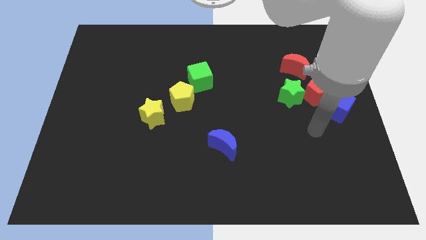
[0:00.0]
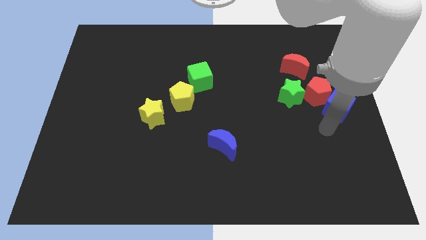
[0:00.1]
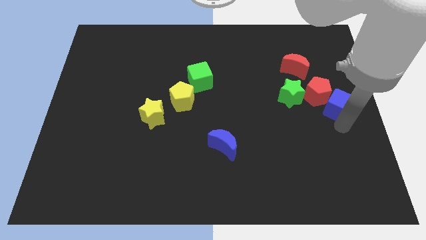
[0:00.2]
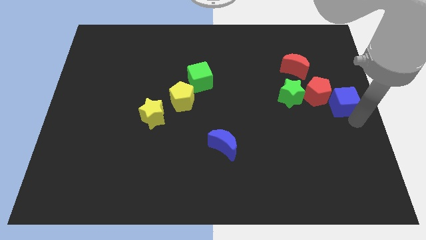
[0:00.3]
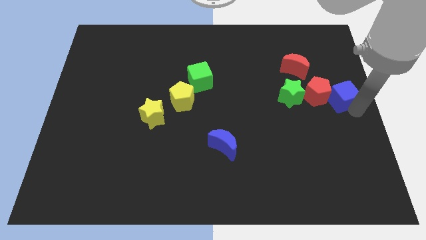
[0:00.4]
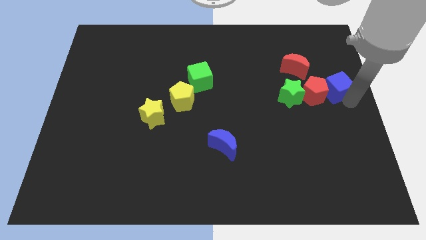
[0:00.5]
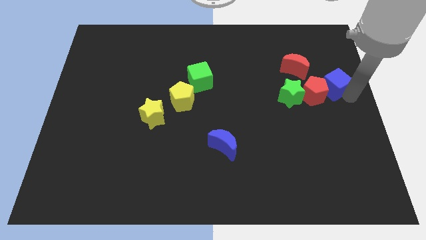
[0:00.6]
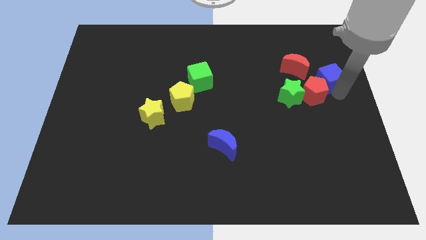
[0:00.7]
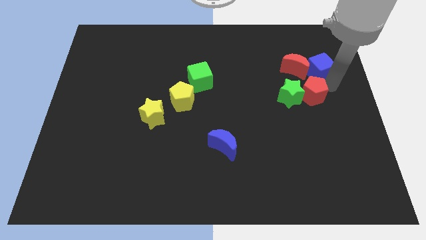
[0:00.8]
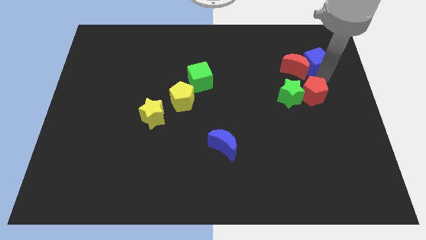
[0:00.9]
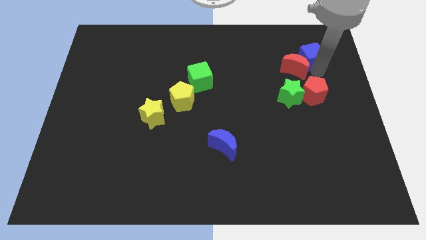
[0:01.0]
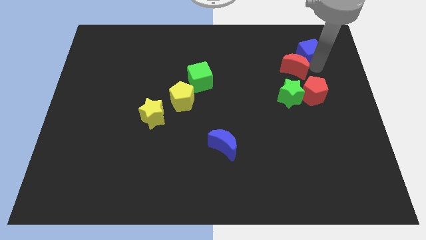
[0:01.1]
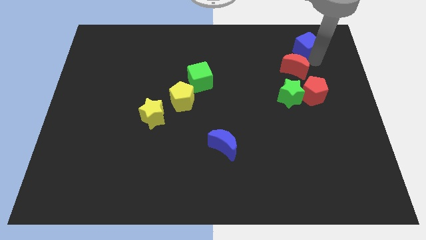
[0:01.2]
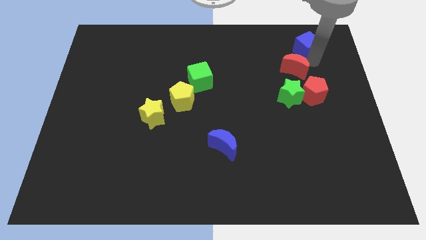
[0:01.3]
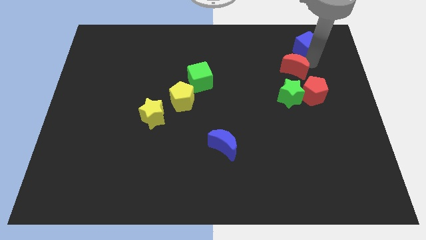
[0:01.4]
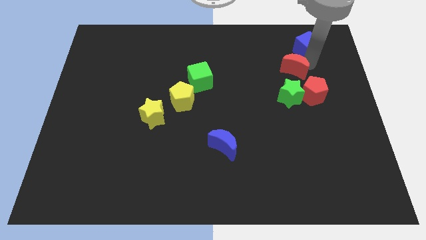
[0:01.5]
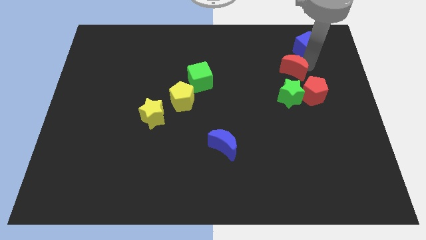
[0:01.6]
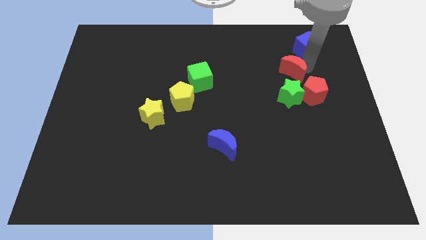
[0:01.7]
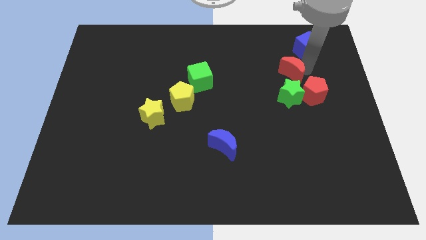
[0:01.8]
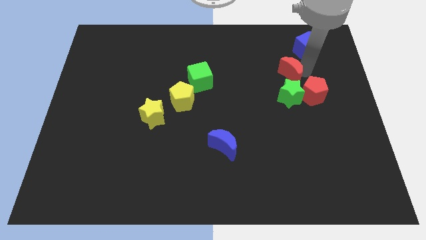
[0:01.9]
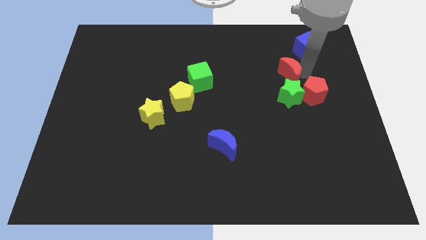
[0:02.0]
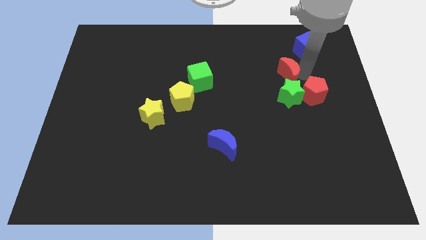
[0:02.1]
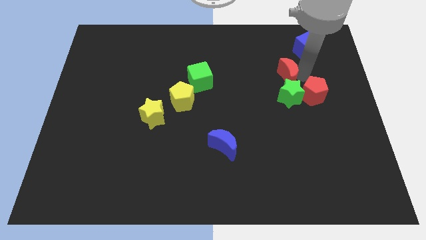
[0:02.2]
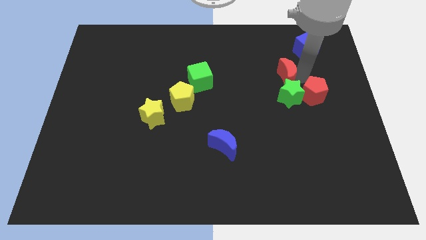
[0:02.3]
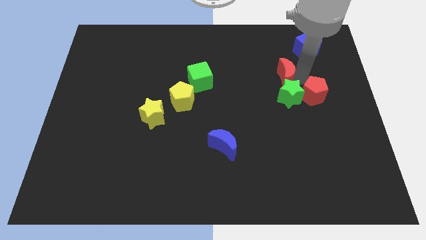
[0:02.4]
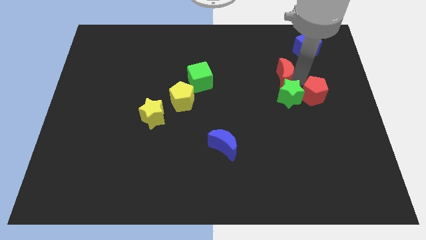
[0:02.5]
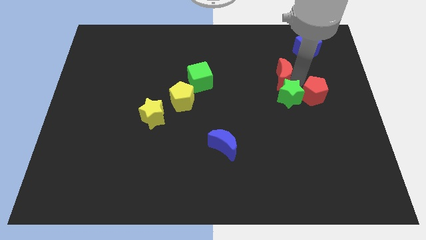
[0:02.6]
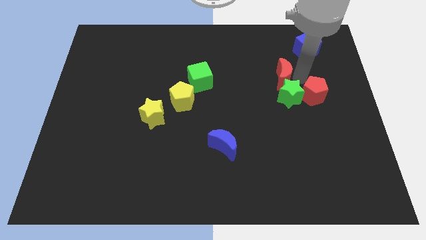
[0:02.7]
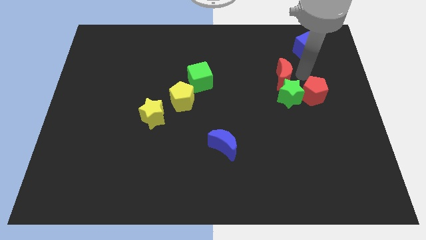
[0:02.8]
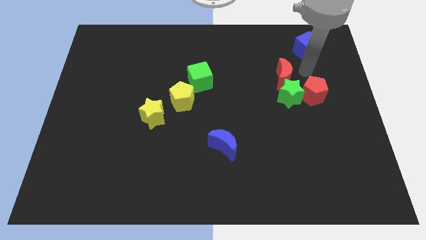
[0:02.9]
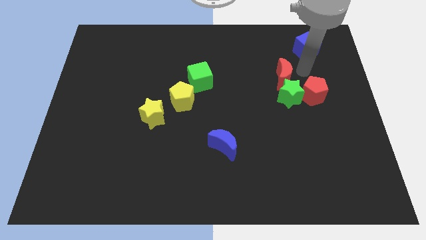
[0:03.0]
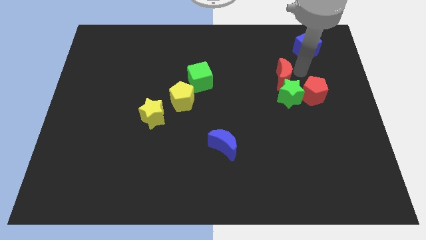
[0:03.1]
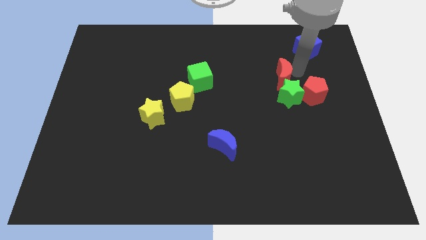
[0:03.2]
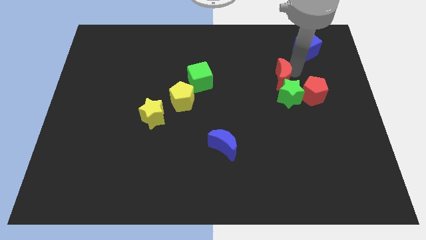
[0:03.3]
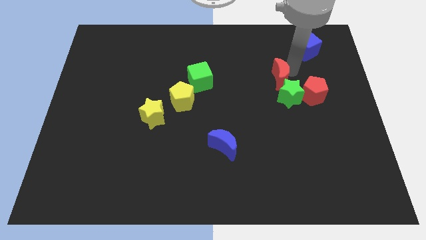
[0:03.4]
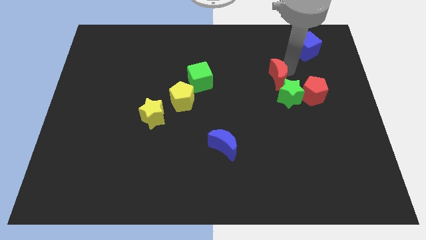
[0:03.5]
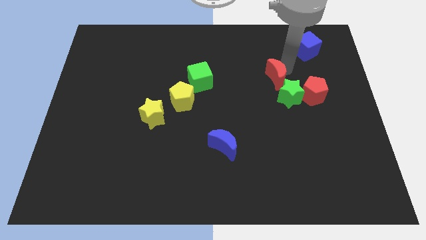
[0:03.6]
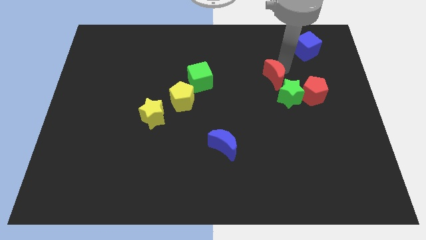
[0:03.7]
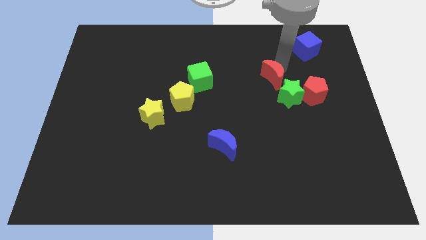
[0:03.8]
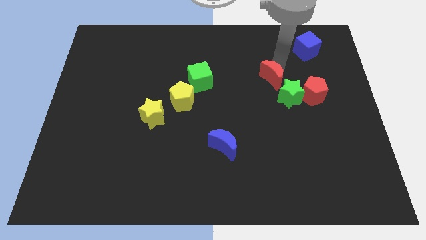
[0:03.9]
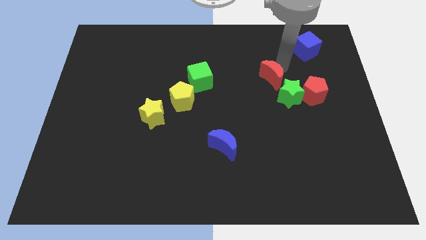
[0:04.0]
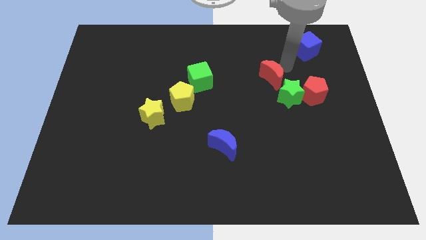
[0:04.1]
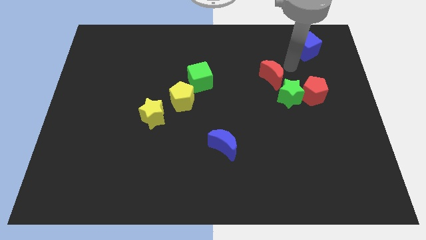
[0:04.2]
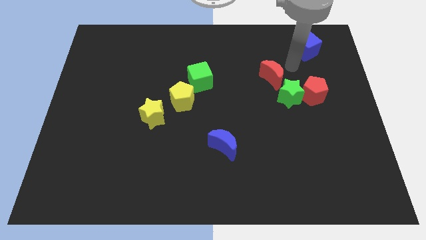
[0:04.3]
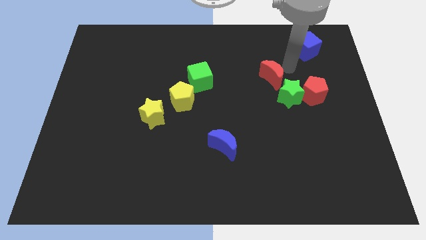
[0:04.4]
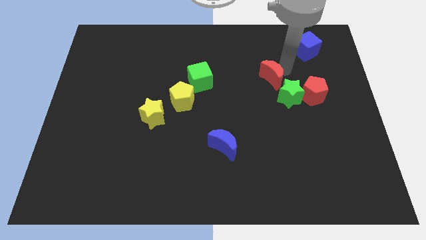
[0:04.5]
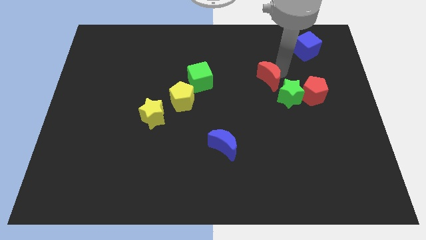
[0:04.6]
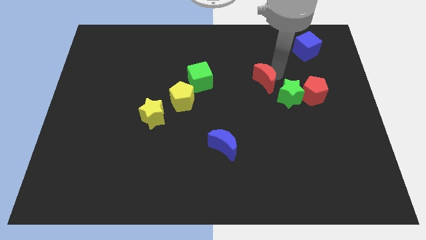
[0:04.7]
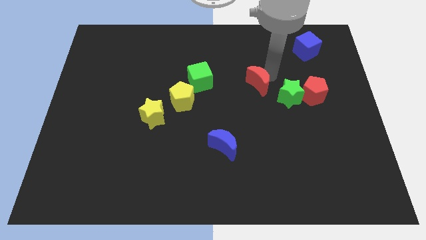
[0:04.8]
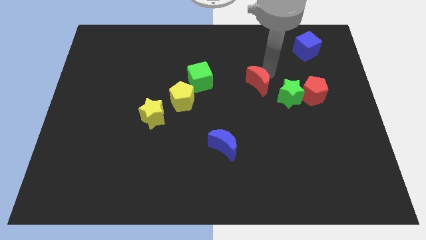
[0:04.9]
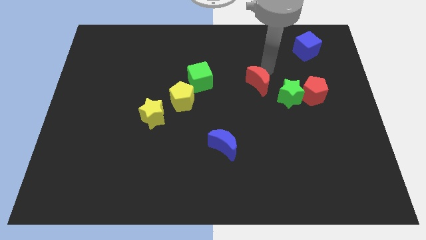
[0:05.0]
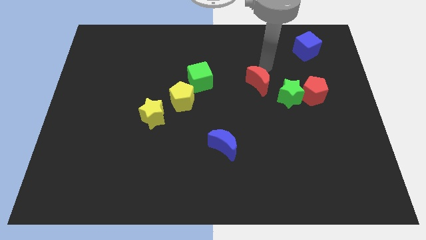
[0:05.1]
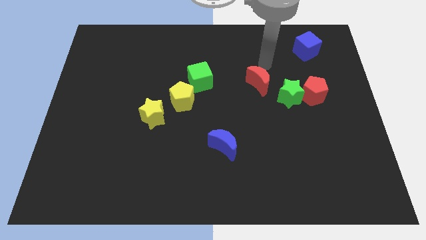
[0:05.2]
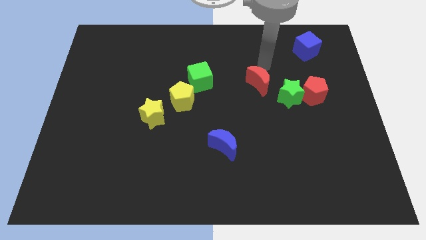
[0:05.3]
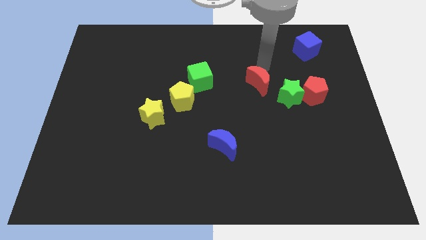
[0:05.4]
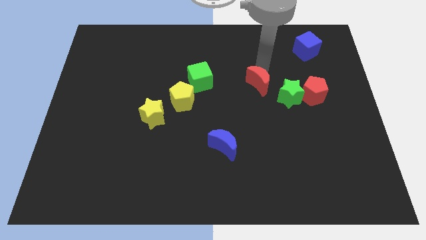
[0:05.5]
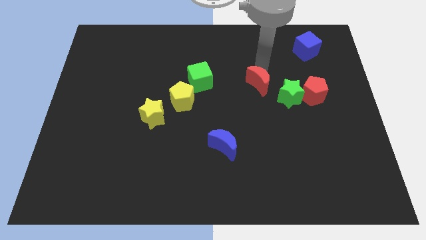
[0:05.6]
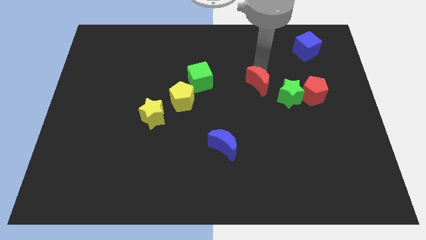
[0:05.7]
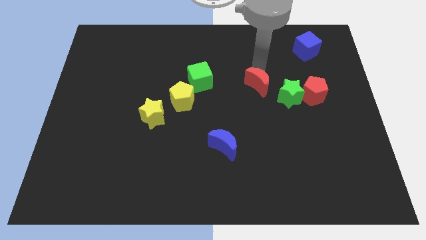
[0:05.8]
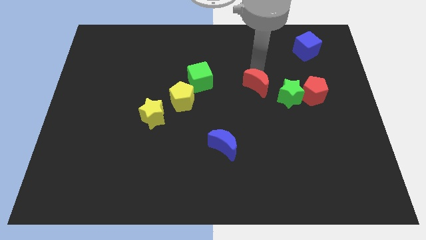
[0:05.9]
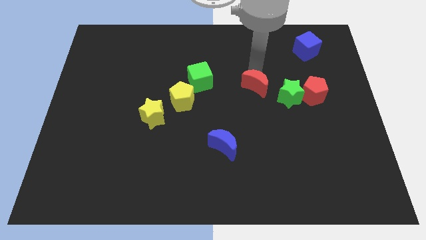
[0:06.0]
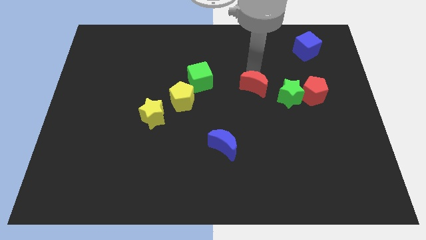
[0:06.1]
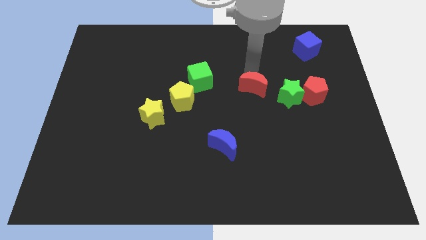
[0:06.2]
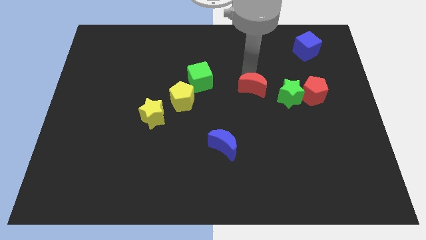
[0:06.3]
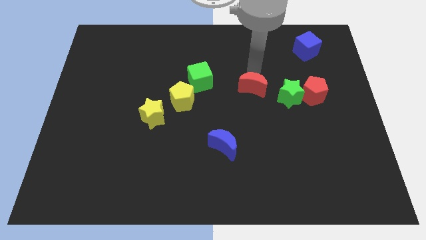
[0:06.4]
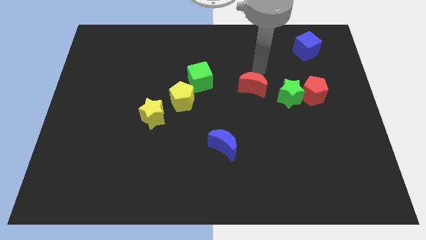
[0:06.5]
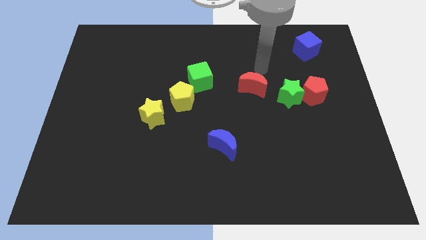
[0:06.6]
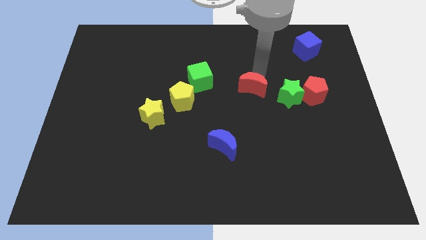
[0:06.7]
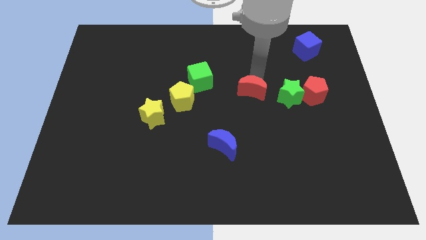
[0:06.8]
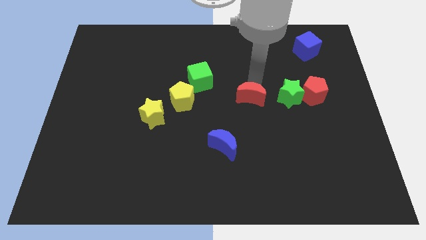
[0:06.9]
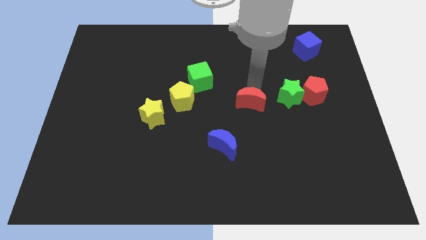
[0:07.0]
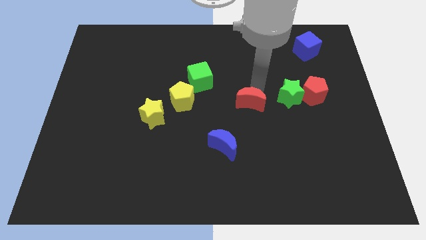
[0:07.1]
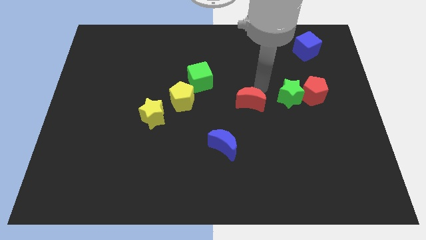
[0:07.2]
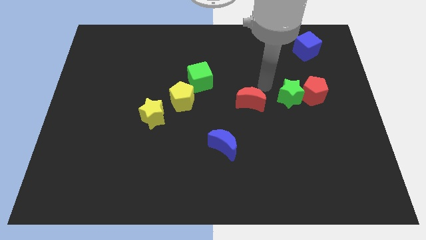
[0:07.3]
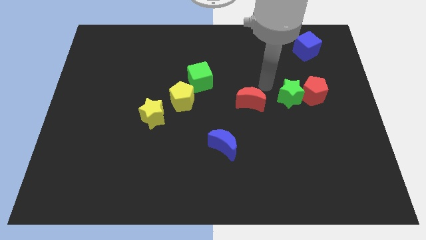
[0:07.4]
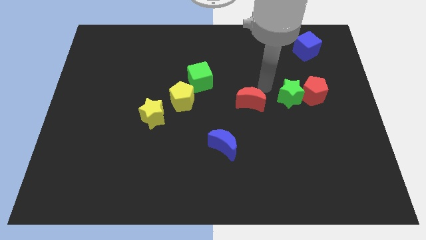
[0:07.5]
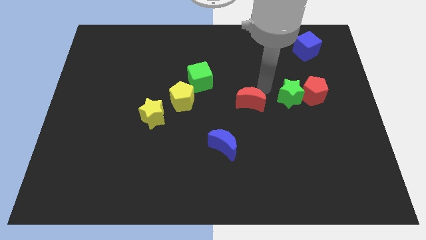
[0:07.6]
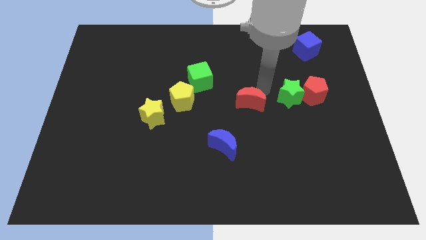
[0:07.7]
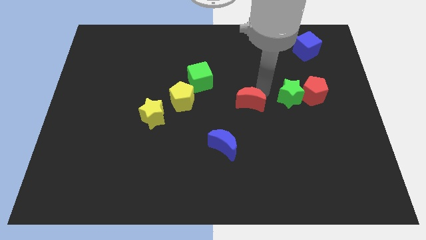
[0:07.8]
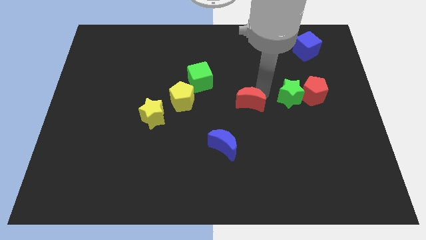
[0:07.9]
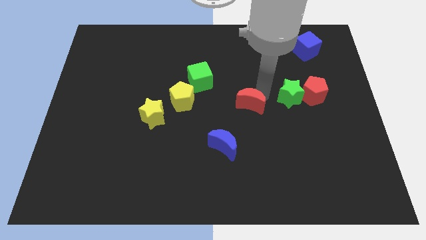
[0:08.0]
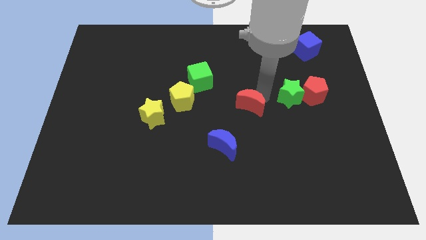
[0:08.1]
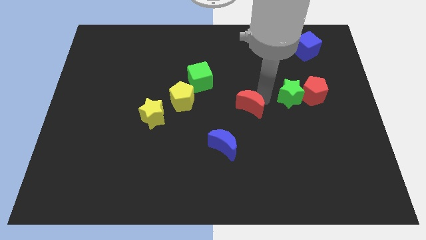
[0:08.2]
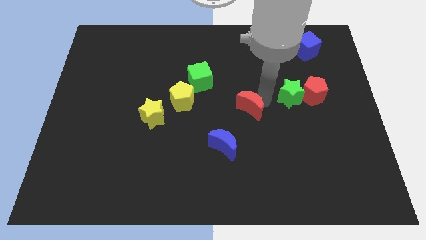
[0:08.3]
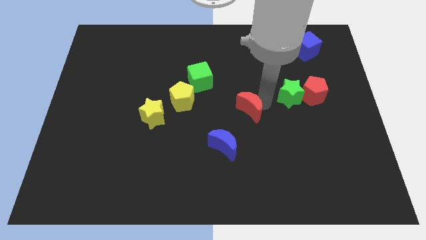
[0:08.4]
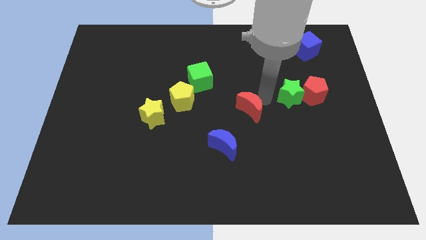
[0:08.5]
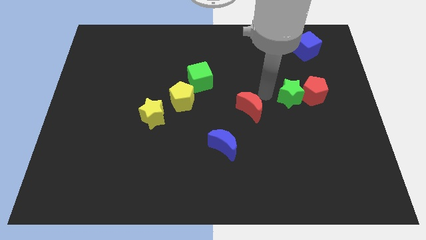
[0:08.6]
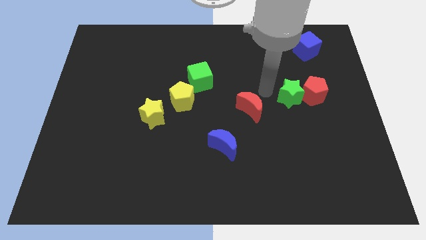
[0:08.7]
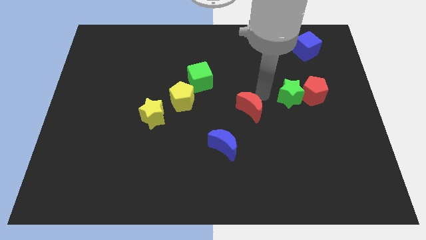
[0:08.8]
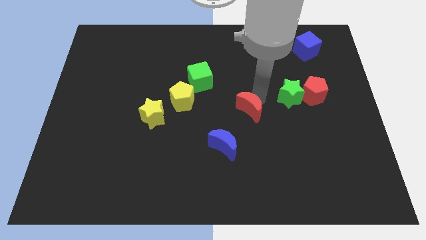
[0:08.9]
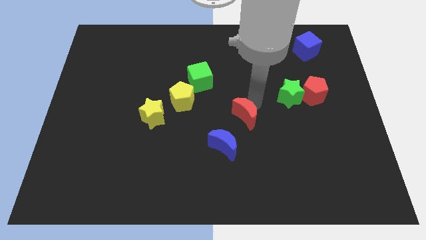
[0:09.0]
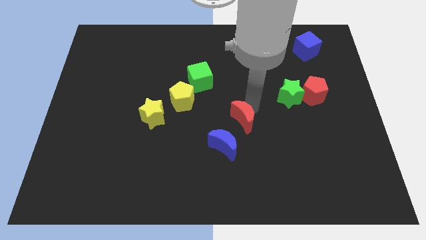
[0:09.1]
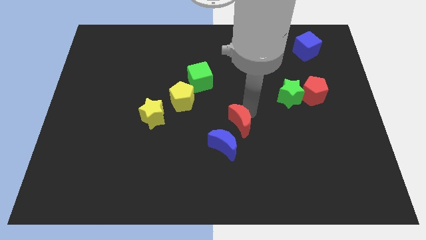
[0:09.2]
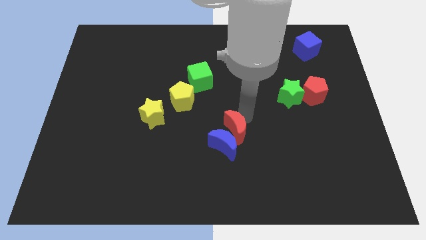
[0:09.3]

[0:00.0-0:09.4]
move the red moon towards the blue moon
